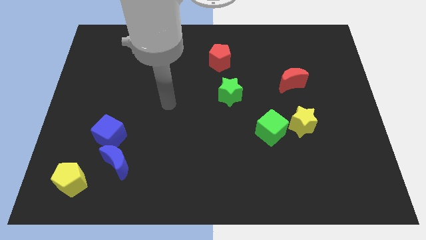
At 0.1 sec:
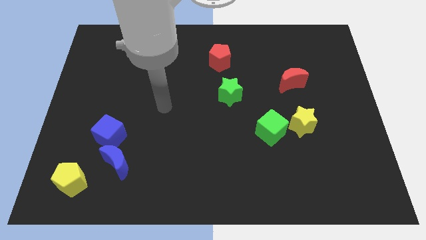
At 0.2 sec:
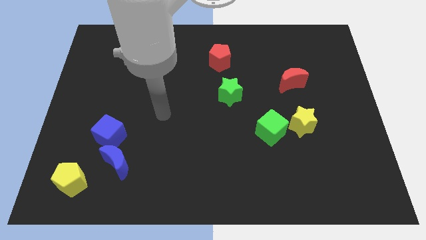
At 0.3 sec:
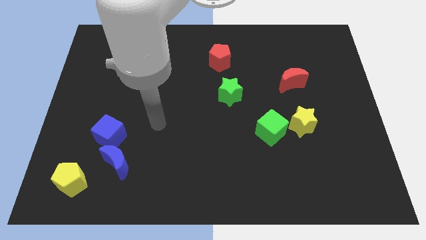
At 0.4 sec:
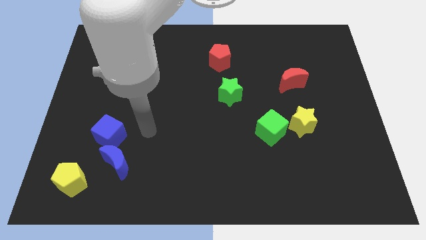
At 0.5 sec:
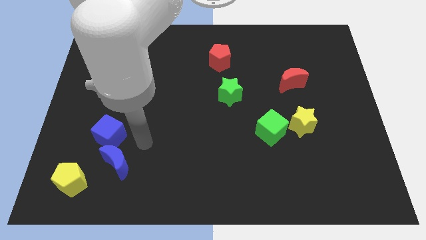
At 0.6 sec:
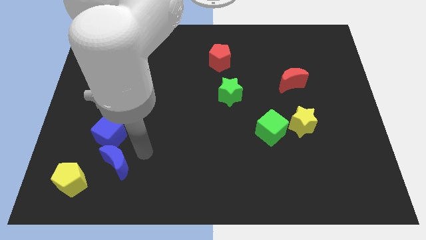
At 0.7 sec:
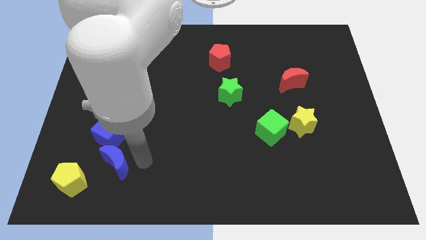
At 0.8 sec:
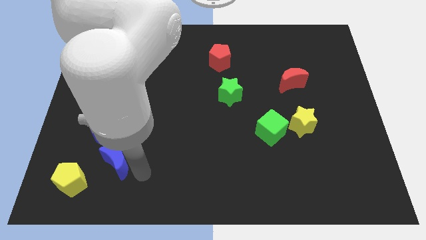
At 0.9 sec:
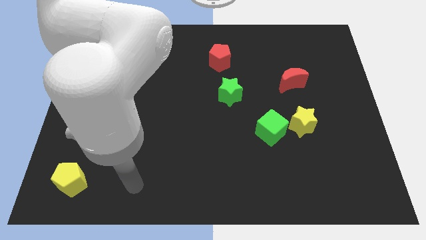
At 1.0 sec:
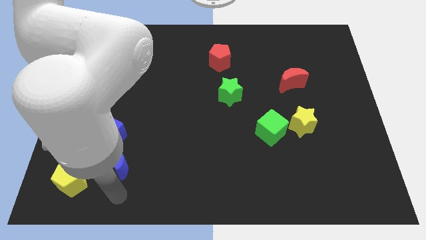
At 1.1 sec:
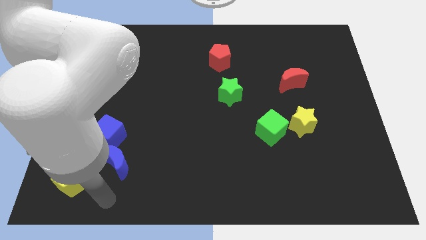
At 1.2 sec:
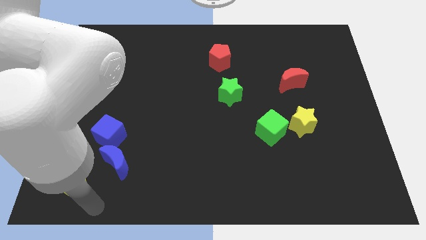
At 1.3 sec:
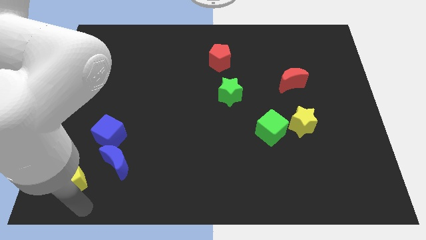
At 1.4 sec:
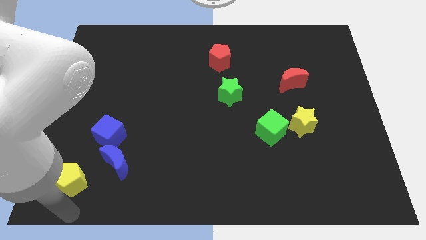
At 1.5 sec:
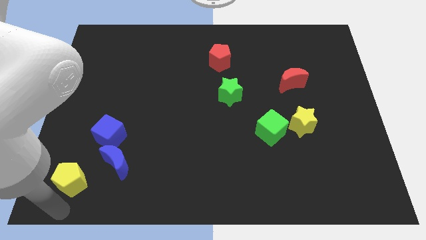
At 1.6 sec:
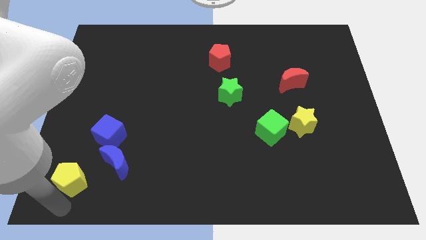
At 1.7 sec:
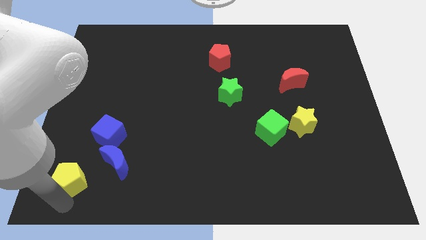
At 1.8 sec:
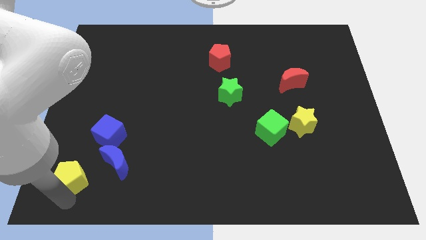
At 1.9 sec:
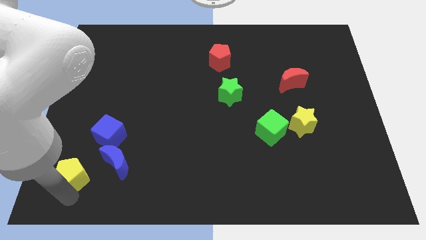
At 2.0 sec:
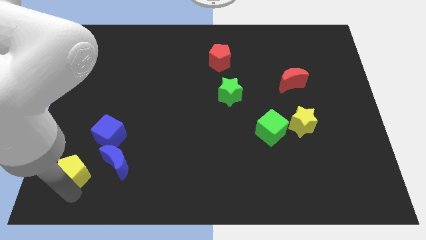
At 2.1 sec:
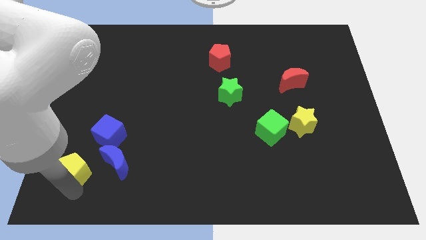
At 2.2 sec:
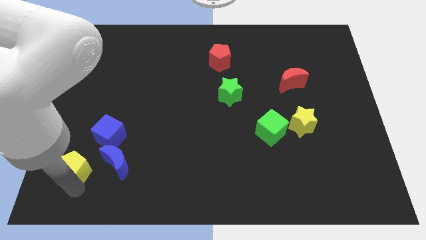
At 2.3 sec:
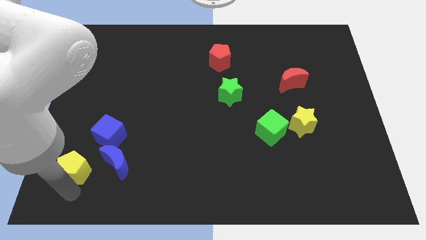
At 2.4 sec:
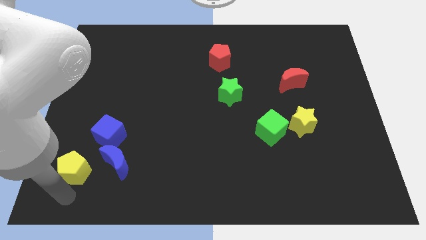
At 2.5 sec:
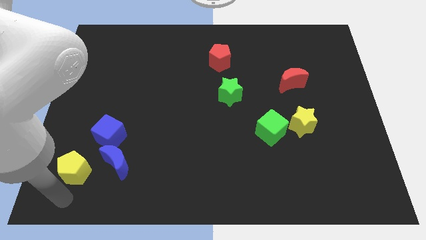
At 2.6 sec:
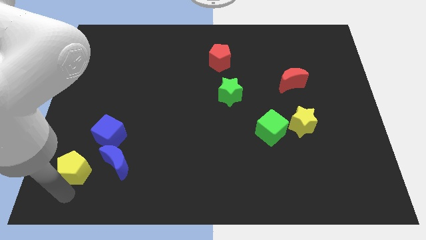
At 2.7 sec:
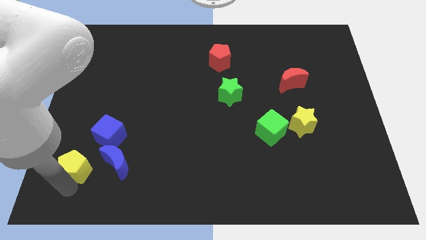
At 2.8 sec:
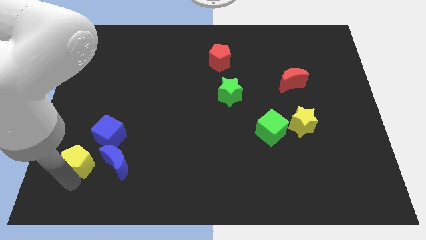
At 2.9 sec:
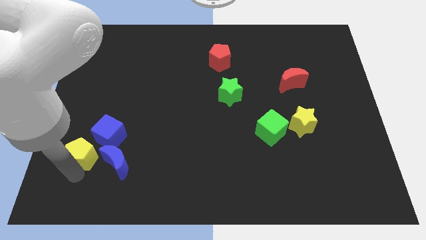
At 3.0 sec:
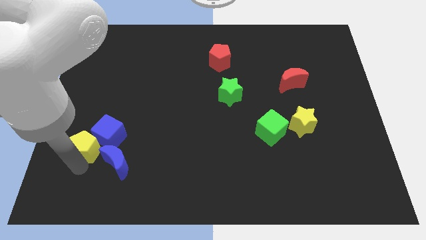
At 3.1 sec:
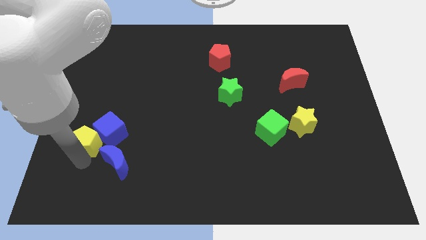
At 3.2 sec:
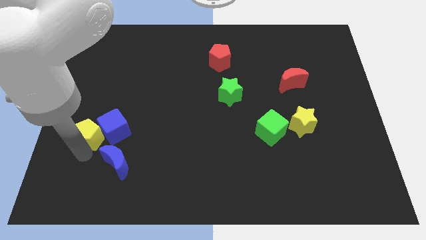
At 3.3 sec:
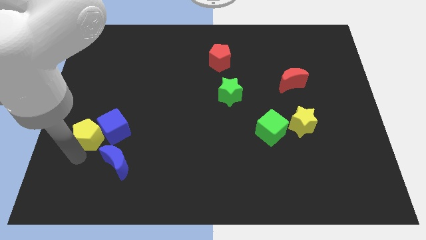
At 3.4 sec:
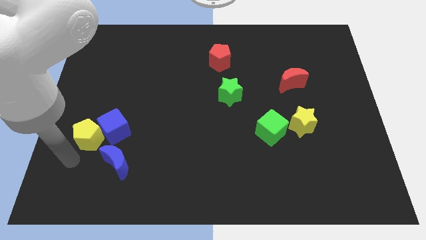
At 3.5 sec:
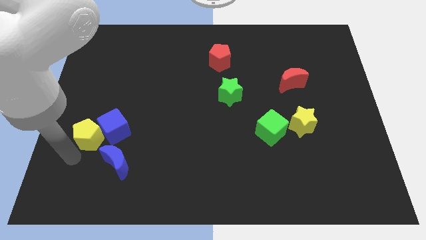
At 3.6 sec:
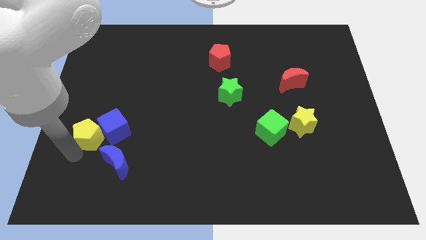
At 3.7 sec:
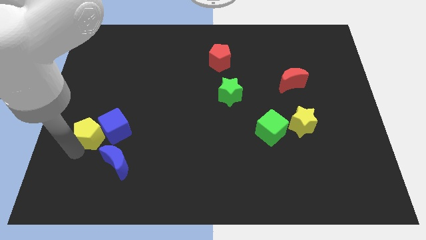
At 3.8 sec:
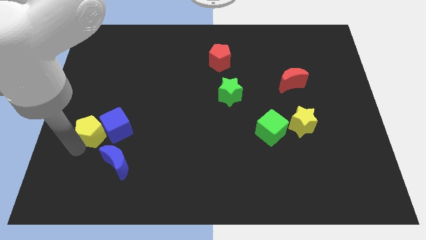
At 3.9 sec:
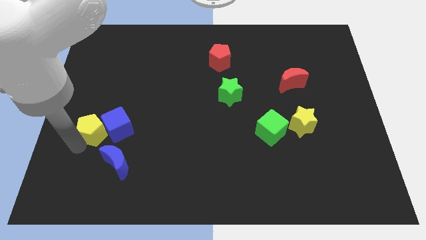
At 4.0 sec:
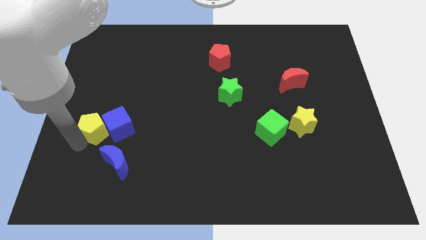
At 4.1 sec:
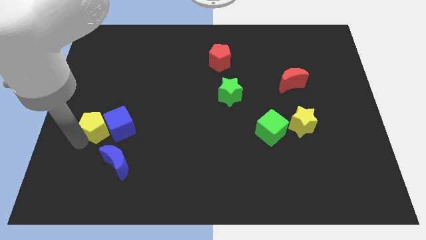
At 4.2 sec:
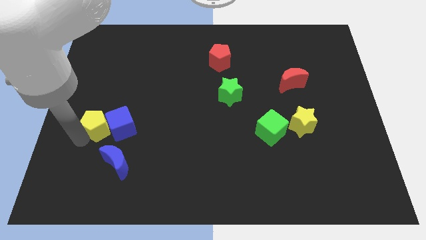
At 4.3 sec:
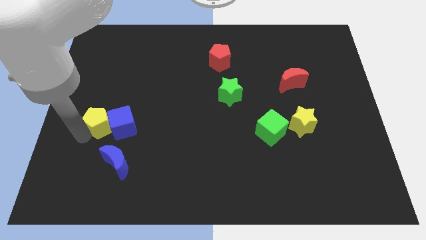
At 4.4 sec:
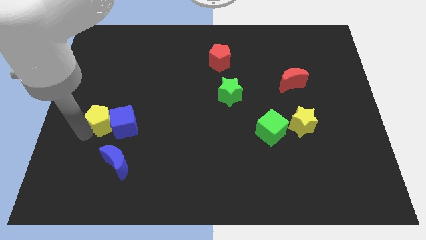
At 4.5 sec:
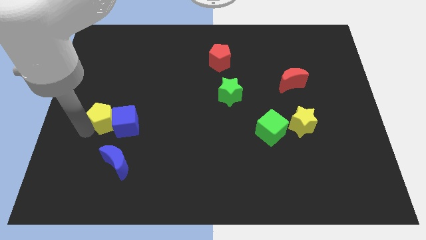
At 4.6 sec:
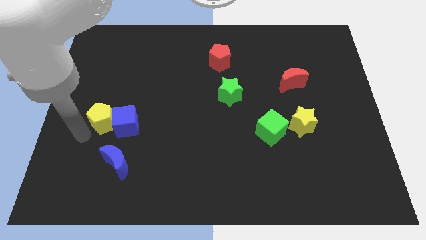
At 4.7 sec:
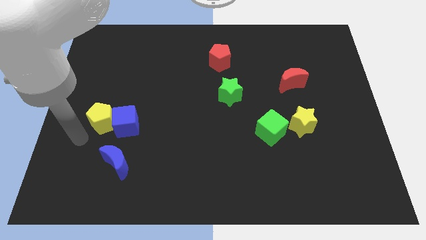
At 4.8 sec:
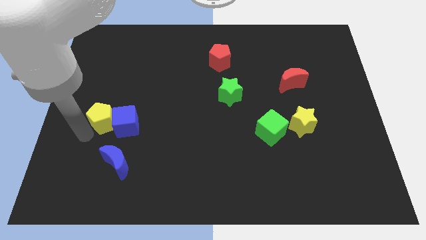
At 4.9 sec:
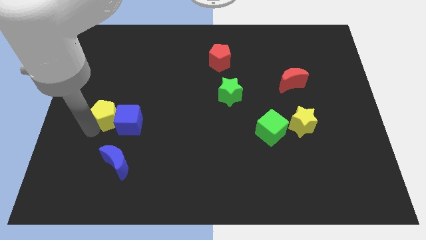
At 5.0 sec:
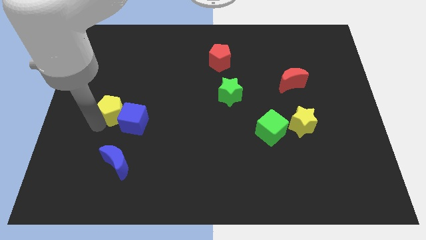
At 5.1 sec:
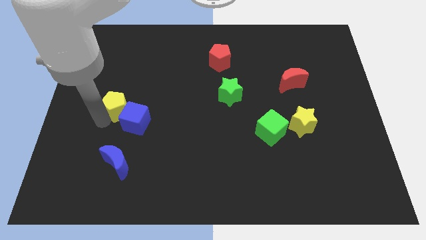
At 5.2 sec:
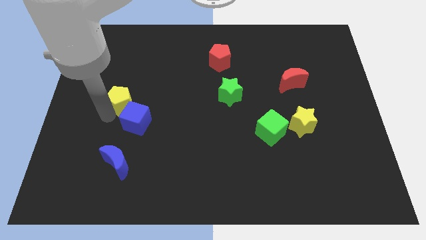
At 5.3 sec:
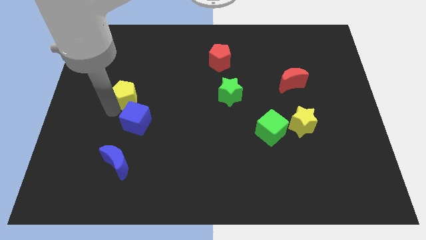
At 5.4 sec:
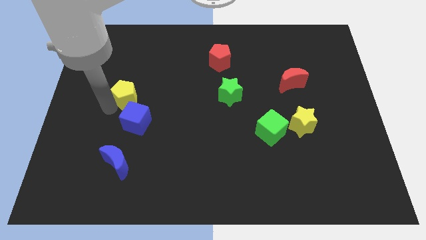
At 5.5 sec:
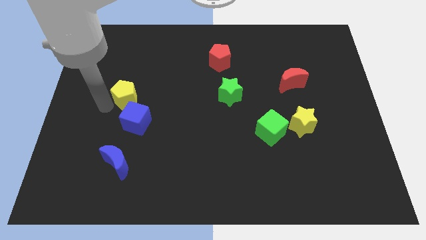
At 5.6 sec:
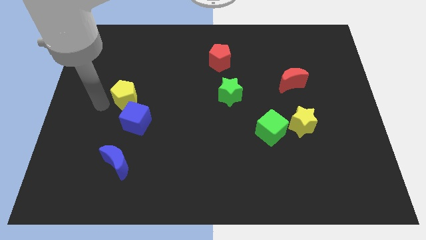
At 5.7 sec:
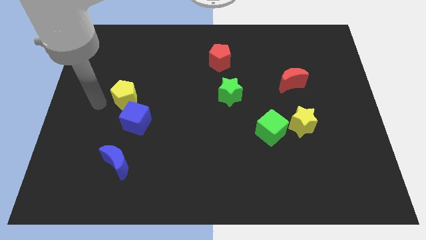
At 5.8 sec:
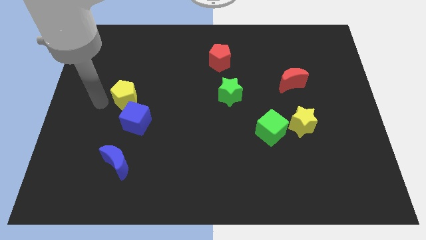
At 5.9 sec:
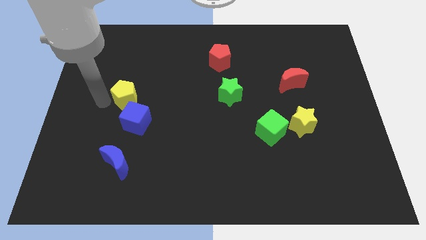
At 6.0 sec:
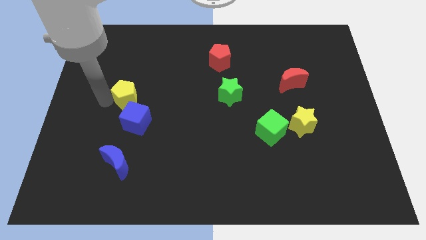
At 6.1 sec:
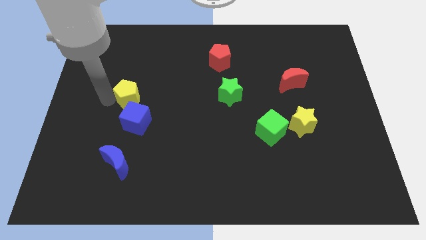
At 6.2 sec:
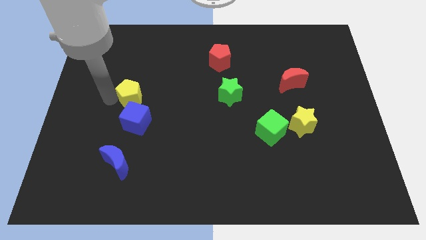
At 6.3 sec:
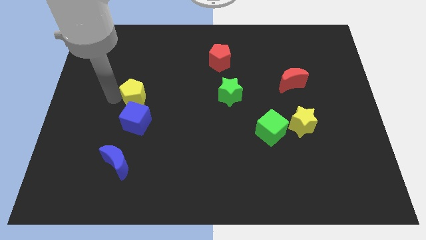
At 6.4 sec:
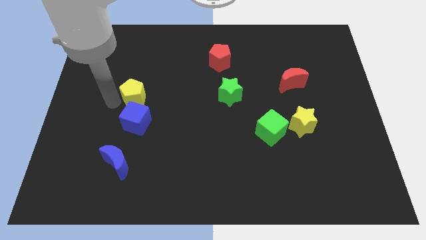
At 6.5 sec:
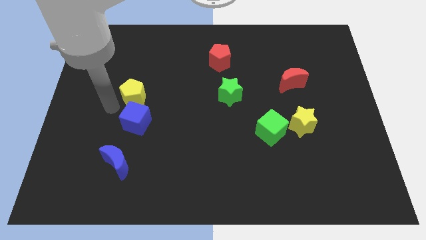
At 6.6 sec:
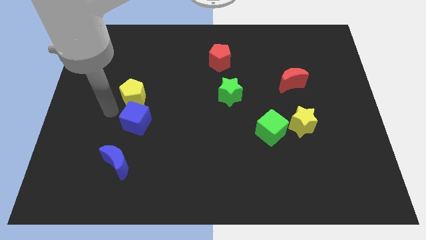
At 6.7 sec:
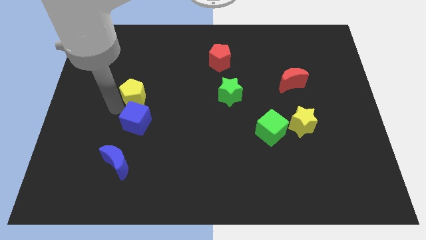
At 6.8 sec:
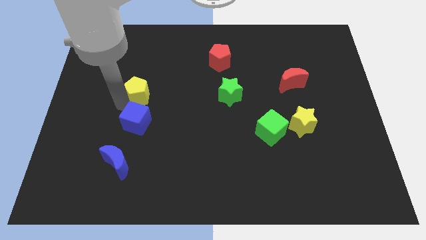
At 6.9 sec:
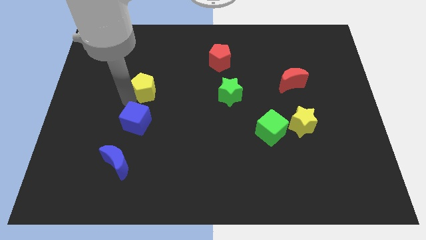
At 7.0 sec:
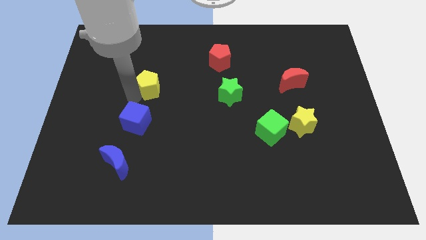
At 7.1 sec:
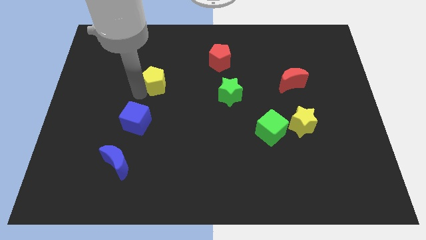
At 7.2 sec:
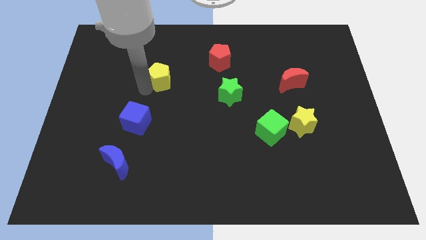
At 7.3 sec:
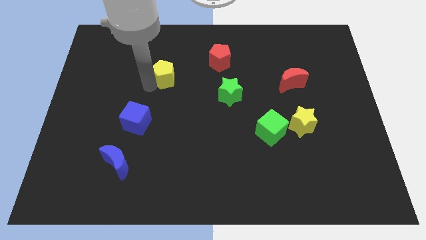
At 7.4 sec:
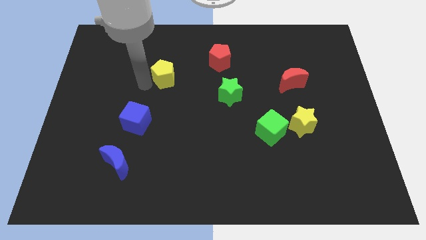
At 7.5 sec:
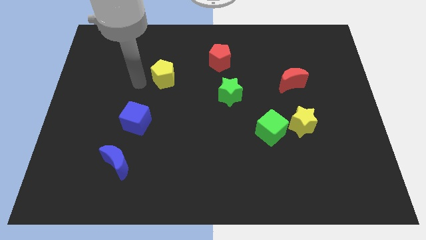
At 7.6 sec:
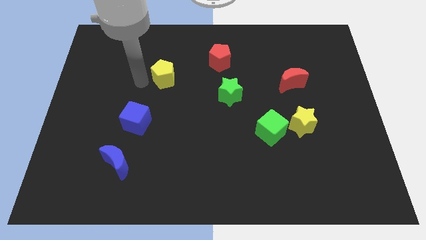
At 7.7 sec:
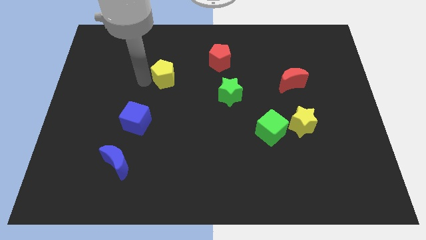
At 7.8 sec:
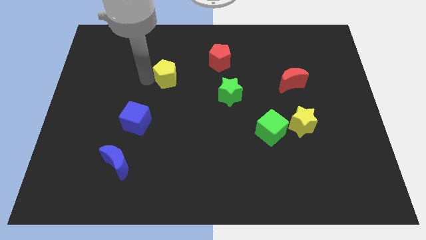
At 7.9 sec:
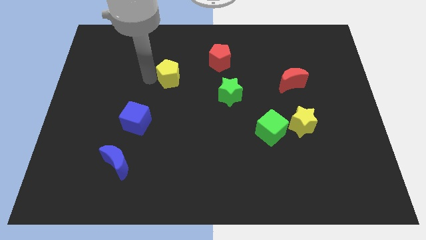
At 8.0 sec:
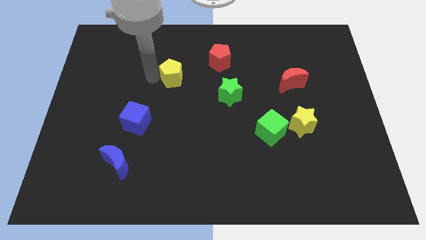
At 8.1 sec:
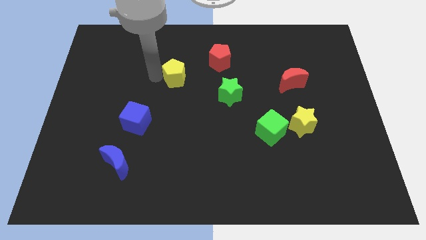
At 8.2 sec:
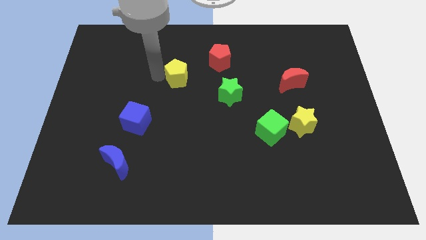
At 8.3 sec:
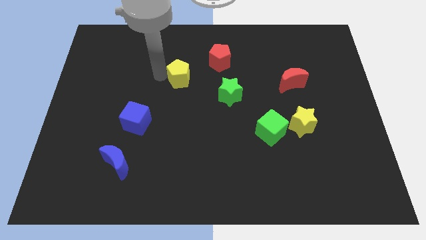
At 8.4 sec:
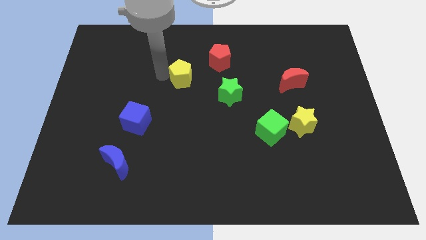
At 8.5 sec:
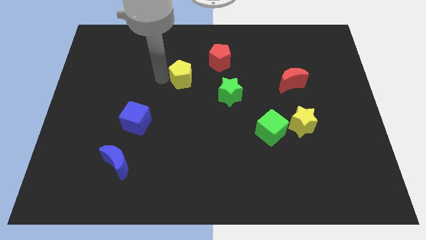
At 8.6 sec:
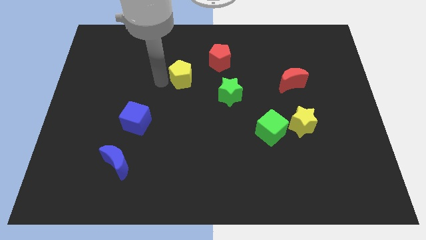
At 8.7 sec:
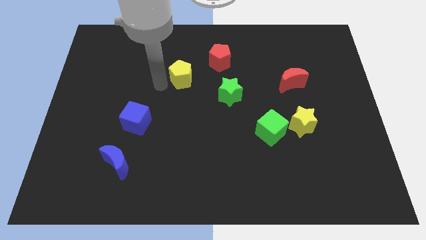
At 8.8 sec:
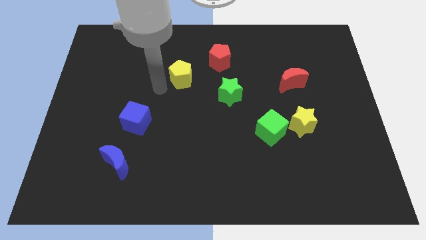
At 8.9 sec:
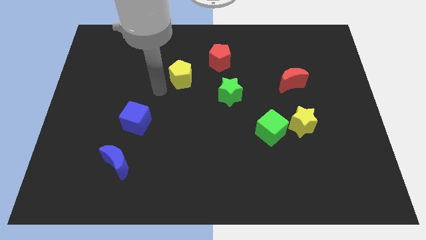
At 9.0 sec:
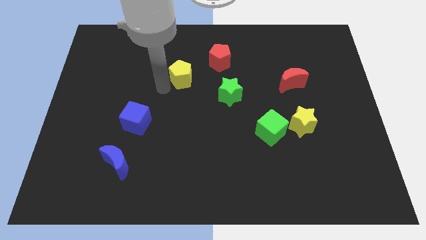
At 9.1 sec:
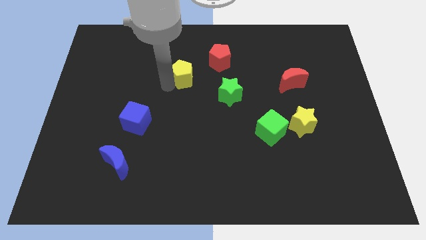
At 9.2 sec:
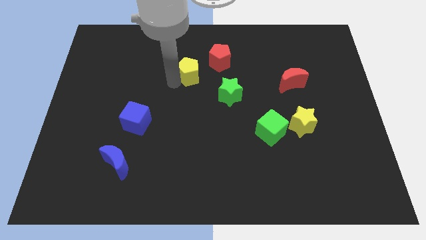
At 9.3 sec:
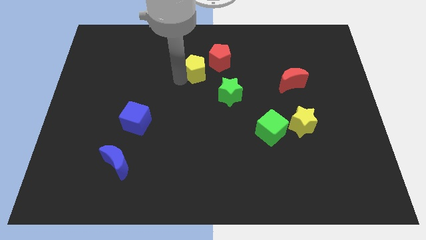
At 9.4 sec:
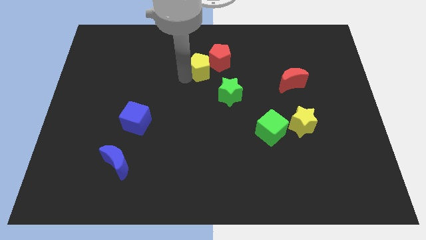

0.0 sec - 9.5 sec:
slide the yellow pentagon to the red pentagon
